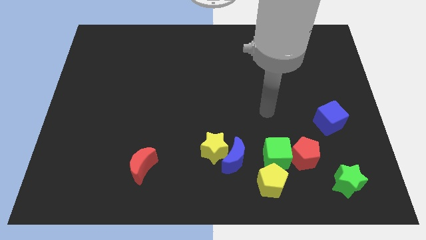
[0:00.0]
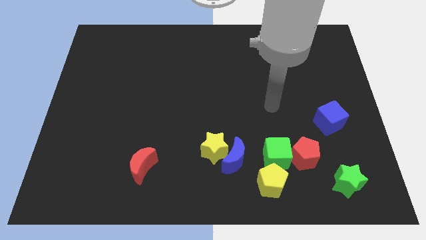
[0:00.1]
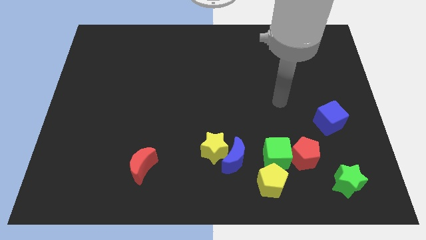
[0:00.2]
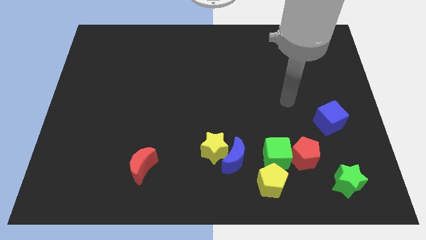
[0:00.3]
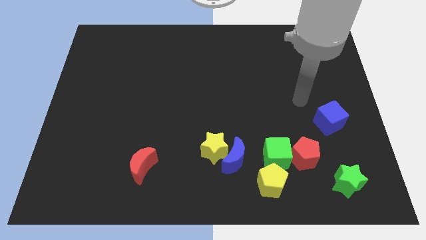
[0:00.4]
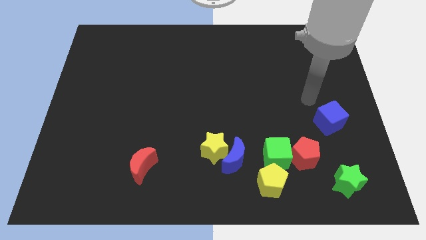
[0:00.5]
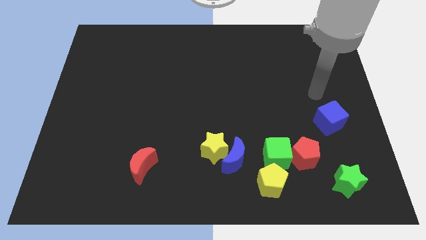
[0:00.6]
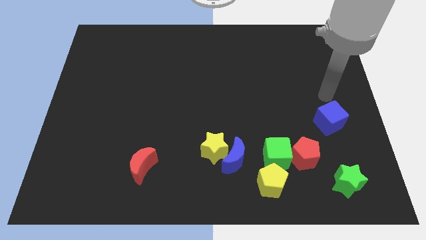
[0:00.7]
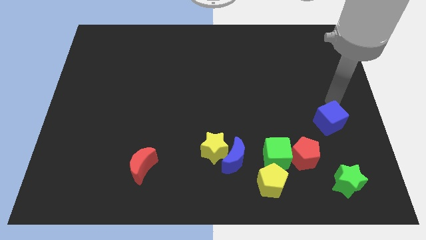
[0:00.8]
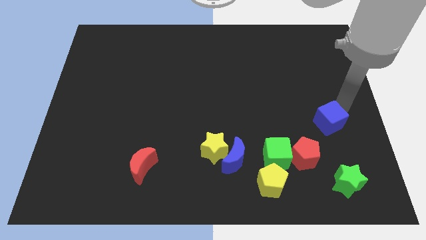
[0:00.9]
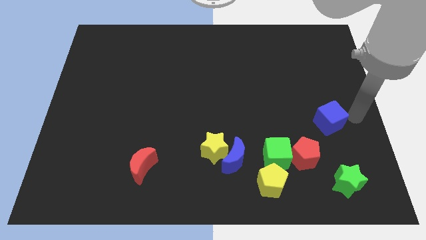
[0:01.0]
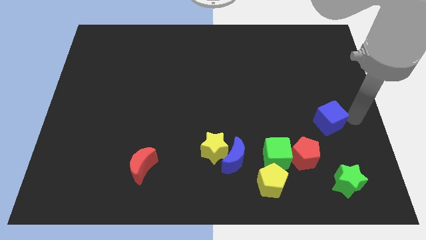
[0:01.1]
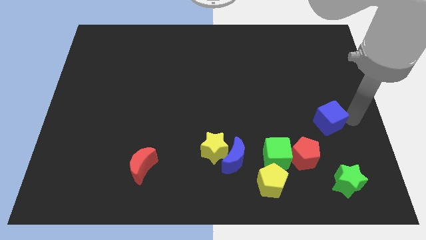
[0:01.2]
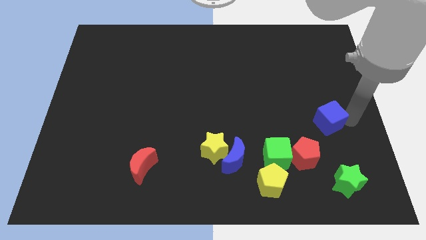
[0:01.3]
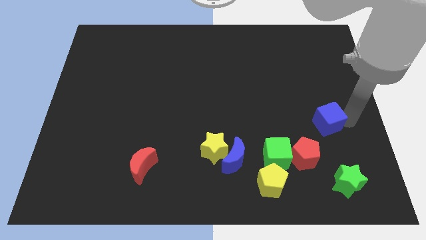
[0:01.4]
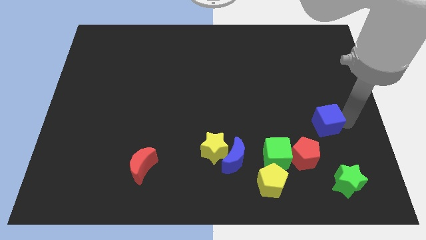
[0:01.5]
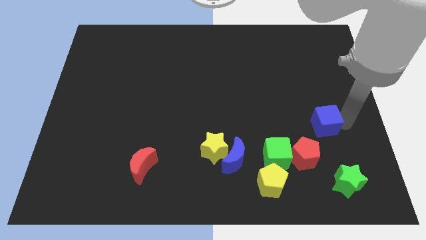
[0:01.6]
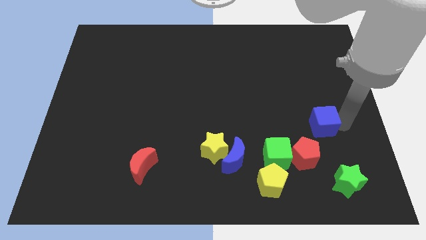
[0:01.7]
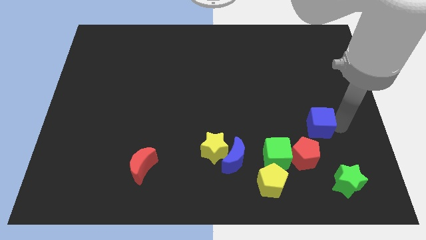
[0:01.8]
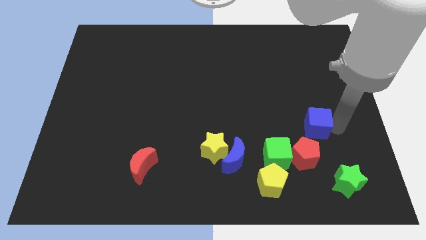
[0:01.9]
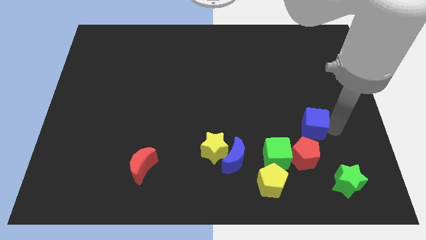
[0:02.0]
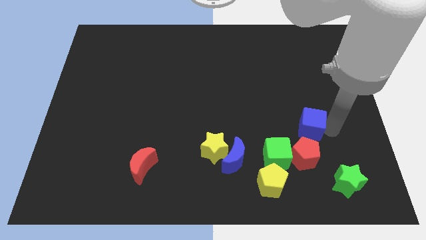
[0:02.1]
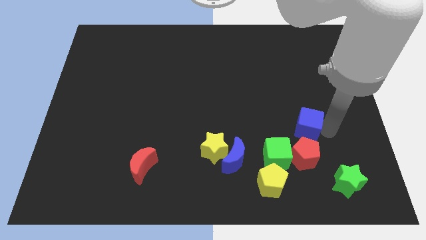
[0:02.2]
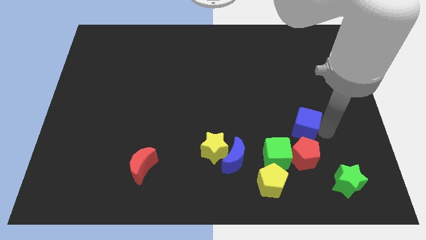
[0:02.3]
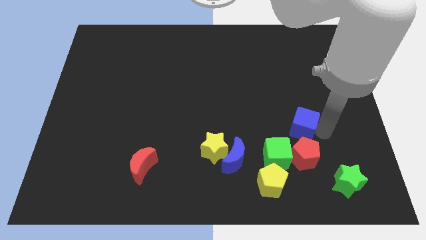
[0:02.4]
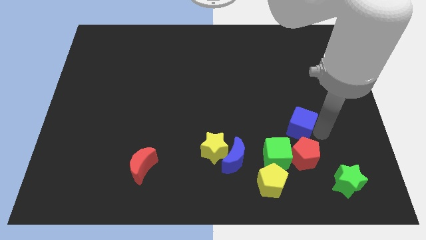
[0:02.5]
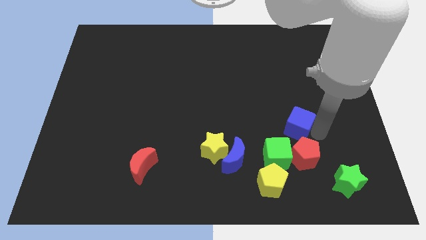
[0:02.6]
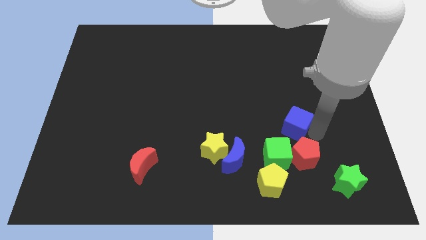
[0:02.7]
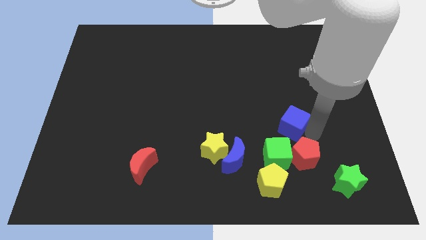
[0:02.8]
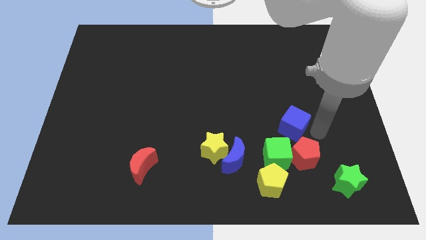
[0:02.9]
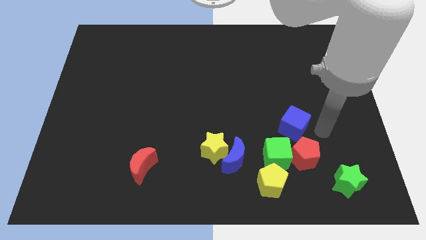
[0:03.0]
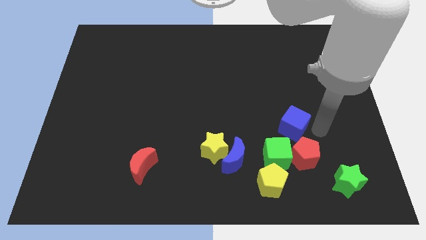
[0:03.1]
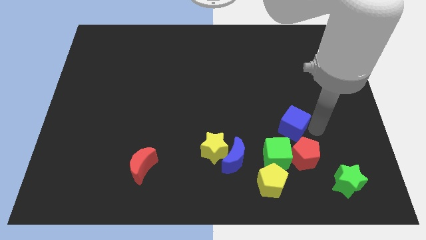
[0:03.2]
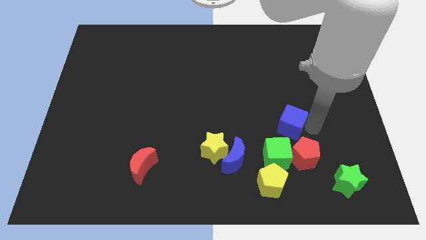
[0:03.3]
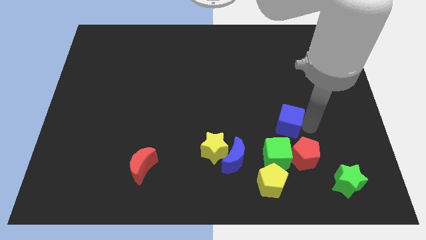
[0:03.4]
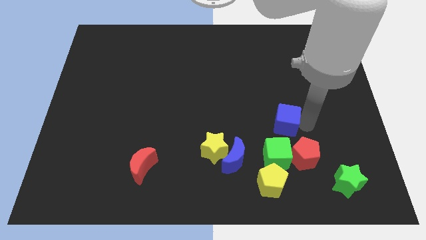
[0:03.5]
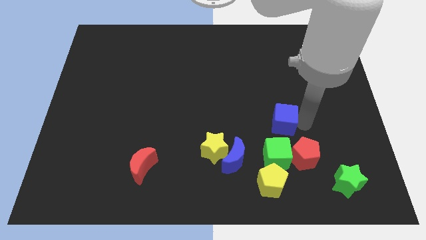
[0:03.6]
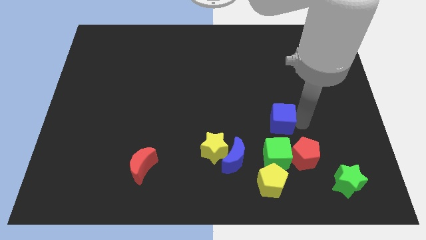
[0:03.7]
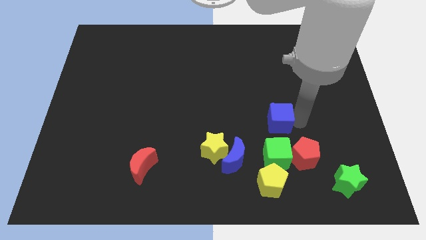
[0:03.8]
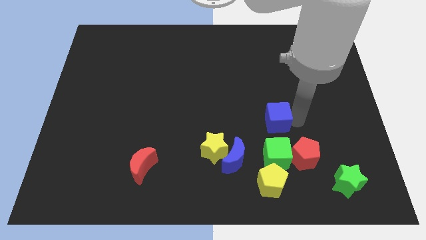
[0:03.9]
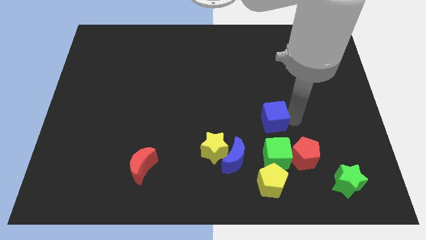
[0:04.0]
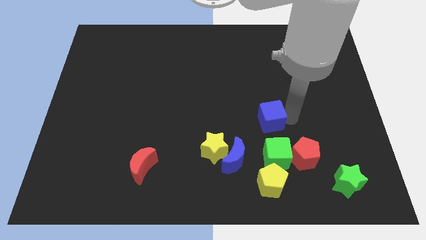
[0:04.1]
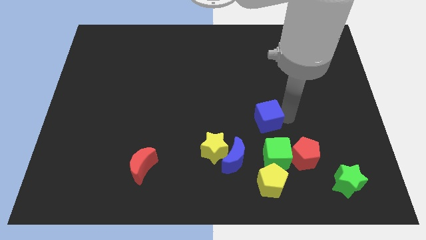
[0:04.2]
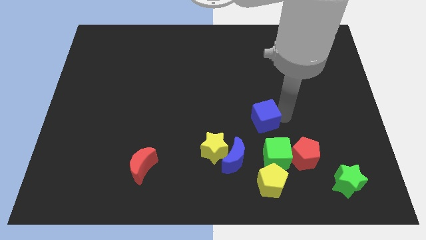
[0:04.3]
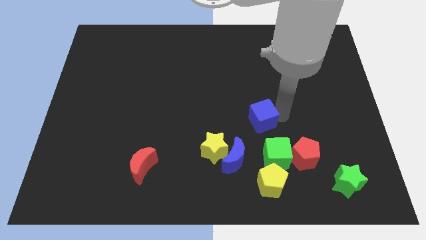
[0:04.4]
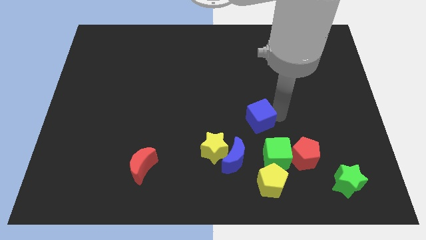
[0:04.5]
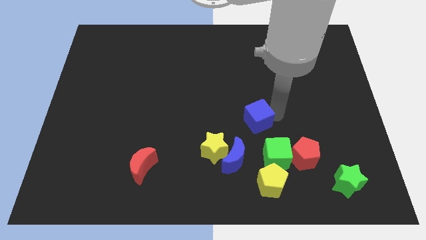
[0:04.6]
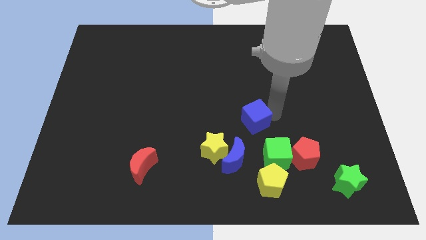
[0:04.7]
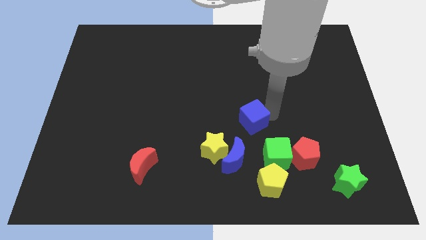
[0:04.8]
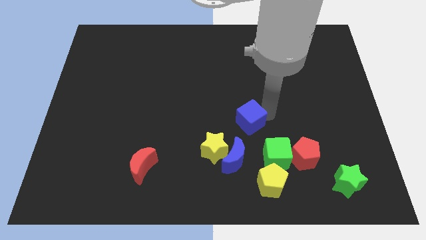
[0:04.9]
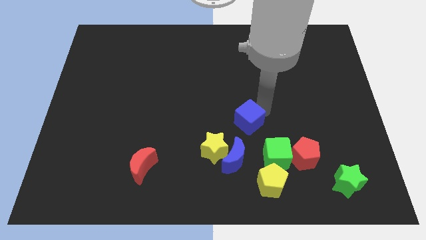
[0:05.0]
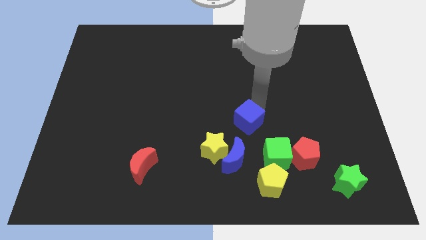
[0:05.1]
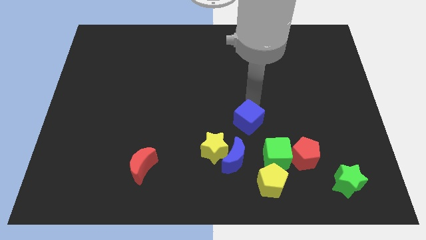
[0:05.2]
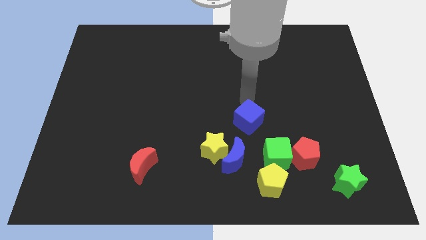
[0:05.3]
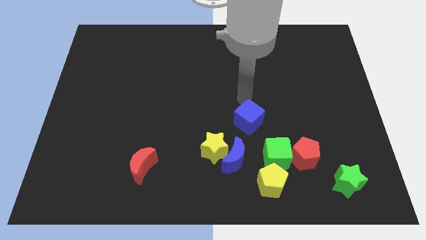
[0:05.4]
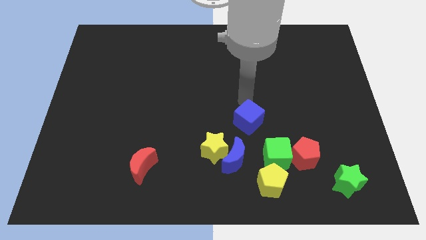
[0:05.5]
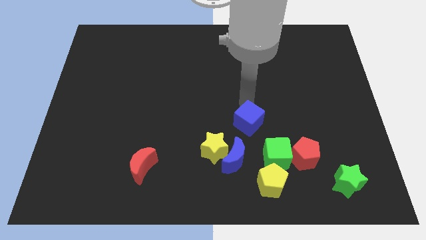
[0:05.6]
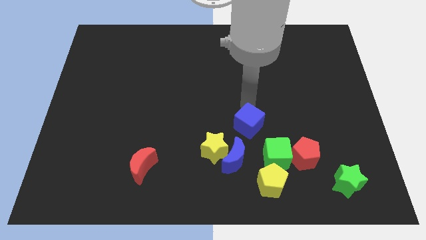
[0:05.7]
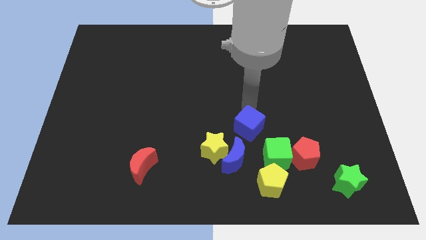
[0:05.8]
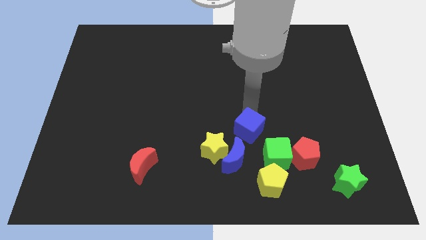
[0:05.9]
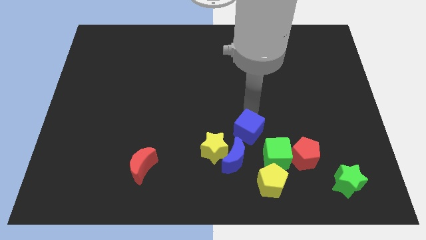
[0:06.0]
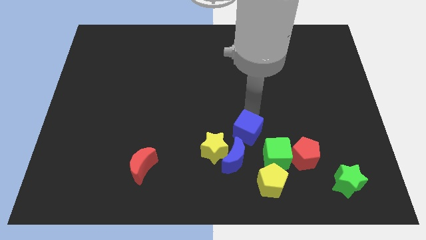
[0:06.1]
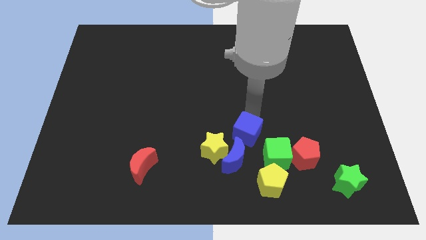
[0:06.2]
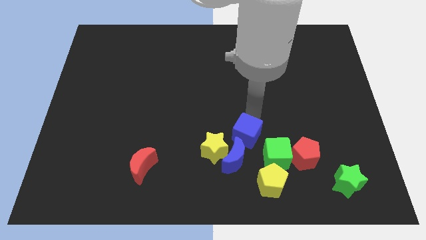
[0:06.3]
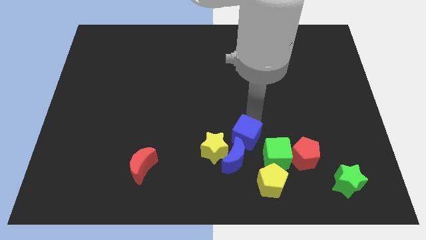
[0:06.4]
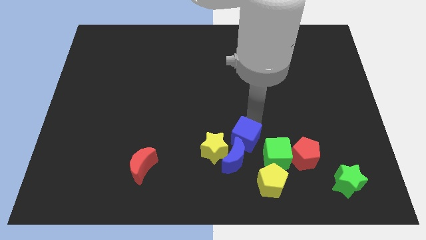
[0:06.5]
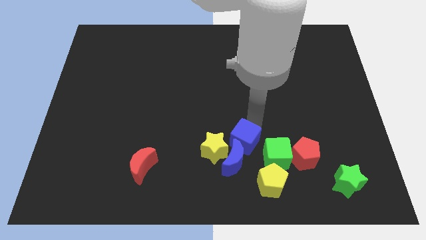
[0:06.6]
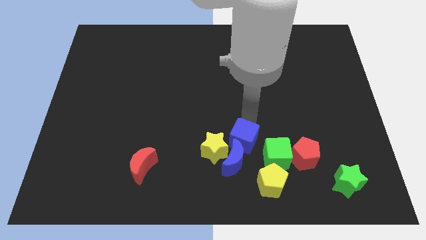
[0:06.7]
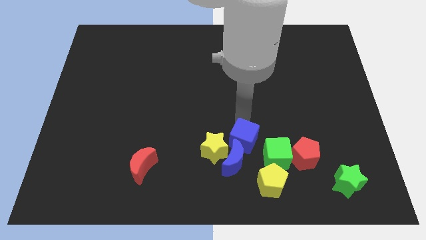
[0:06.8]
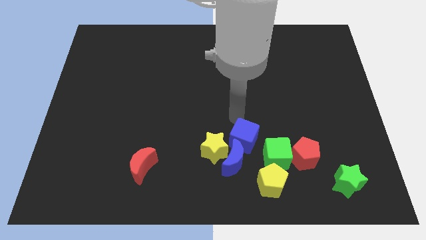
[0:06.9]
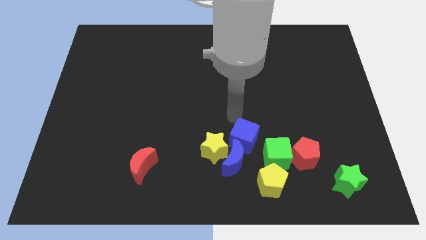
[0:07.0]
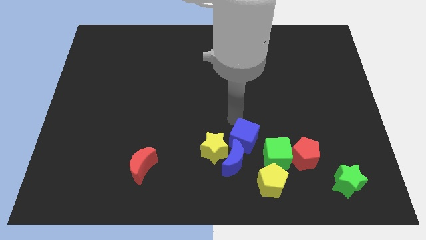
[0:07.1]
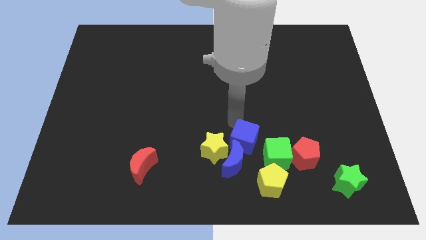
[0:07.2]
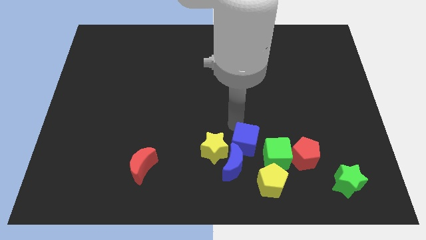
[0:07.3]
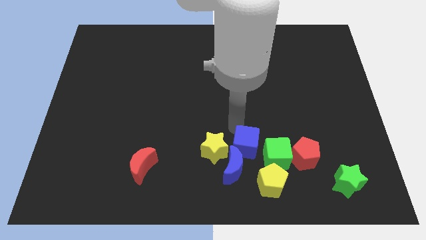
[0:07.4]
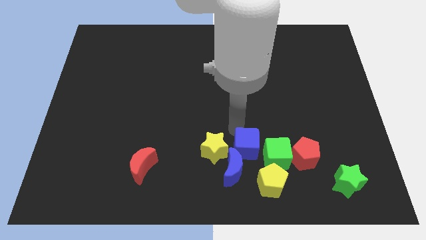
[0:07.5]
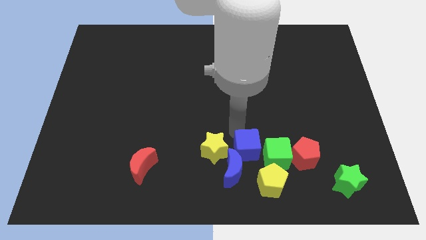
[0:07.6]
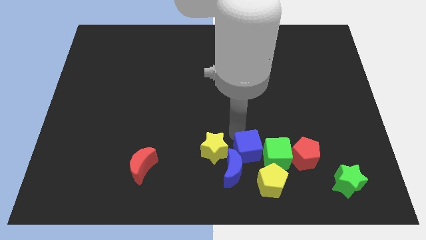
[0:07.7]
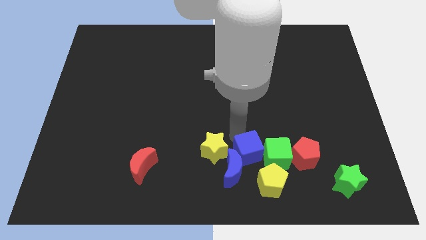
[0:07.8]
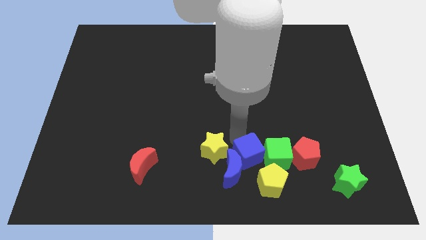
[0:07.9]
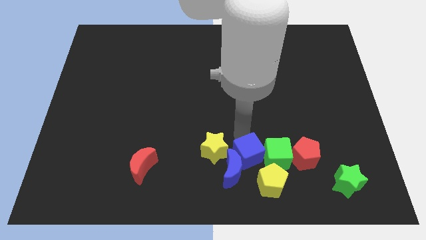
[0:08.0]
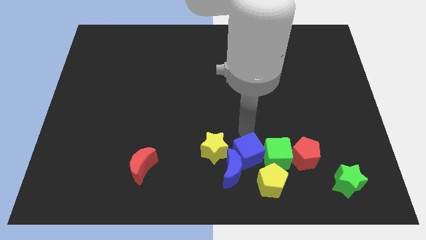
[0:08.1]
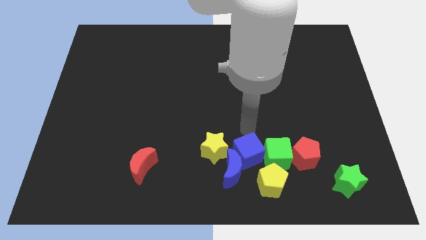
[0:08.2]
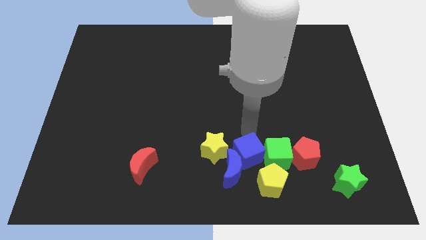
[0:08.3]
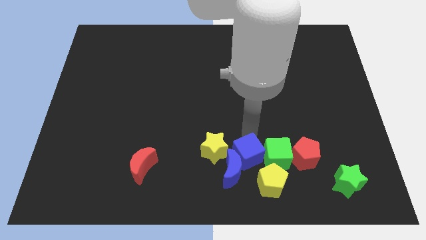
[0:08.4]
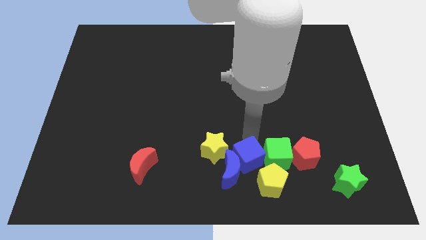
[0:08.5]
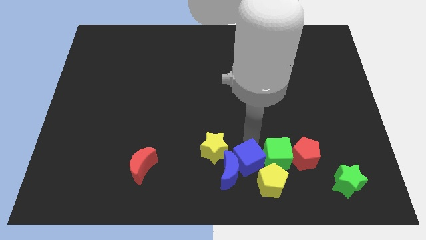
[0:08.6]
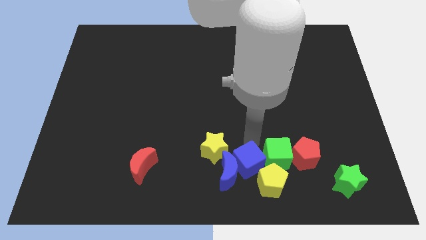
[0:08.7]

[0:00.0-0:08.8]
push the blue cube to the left of the yellow pentagon
